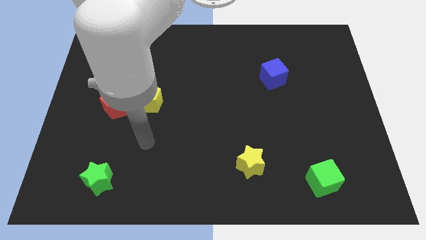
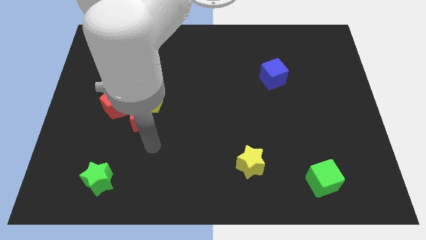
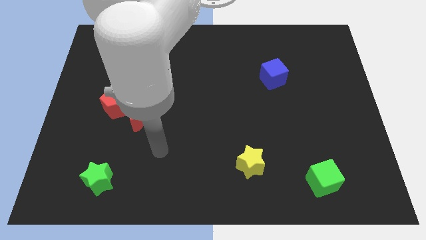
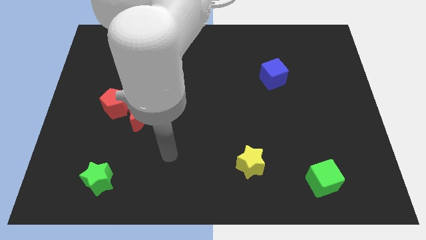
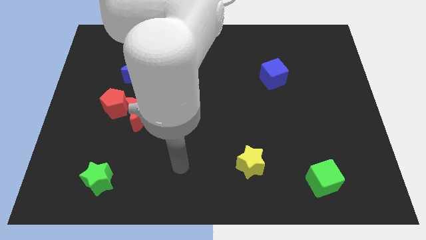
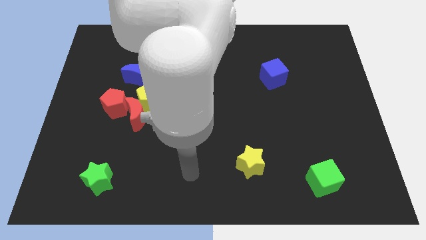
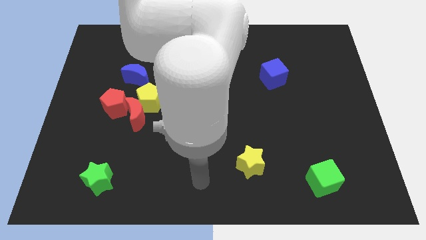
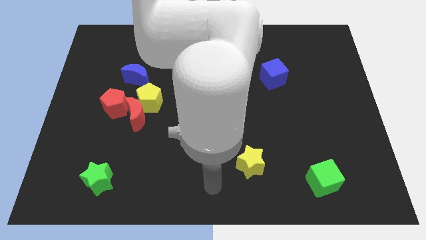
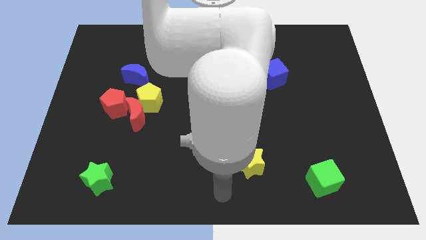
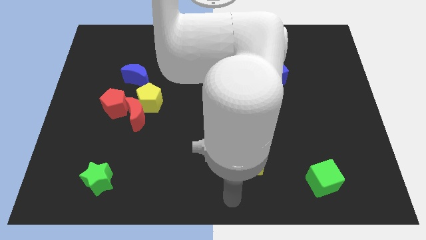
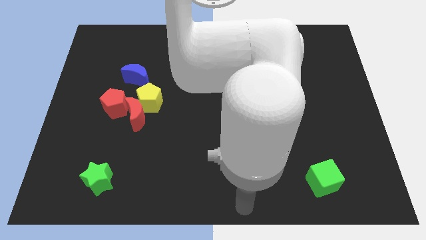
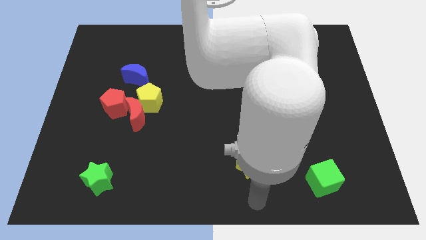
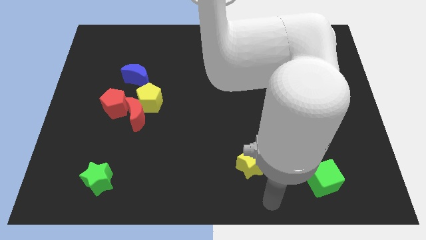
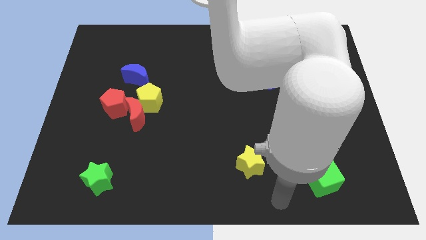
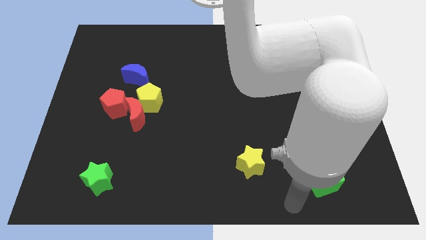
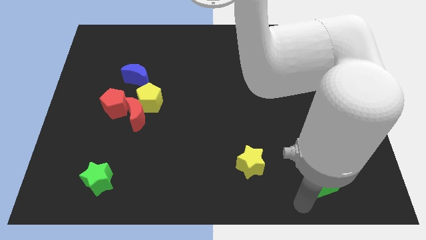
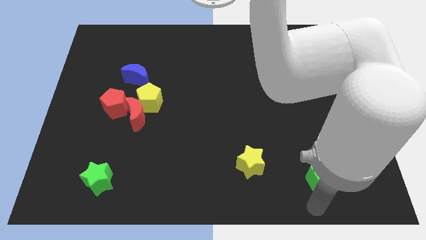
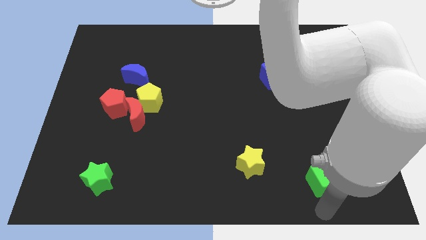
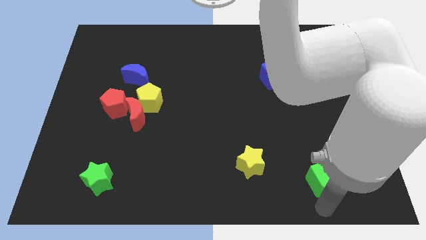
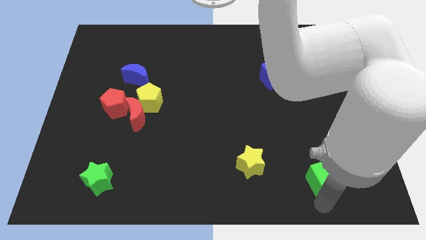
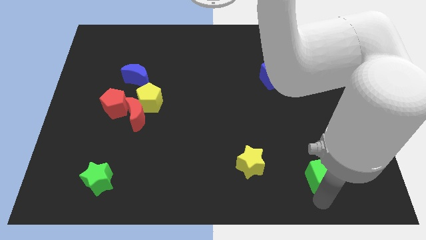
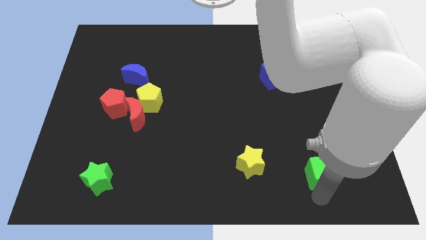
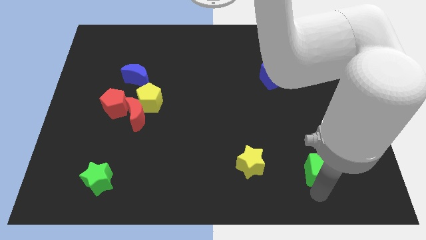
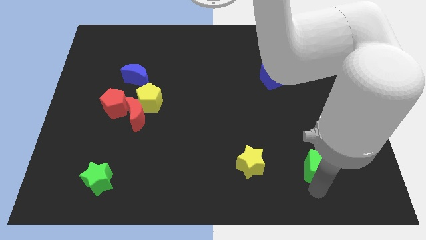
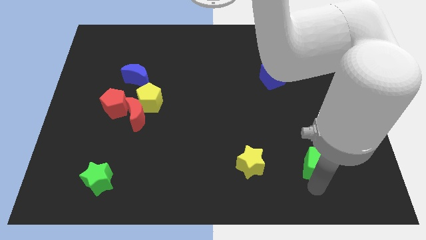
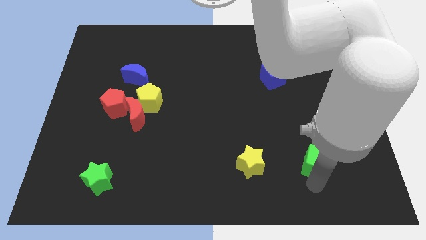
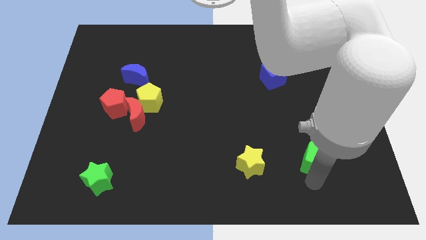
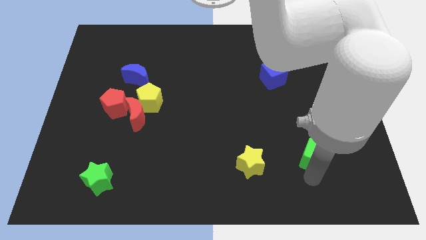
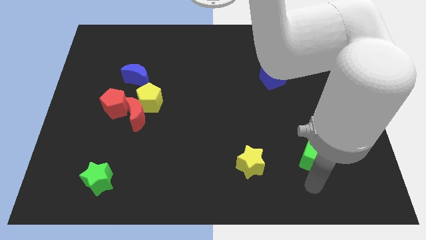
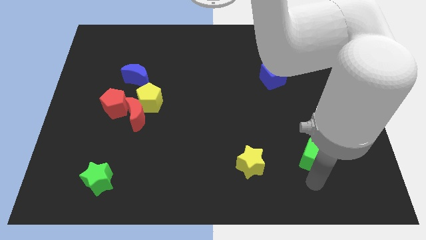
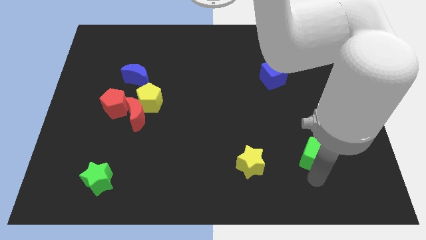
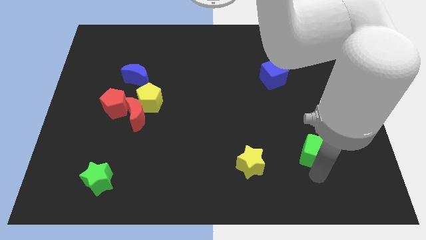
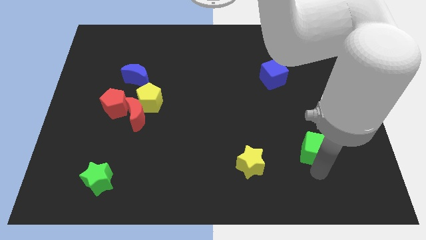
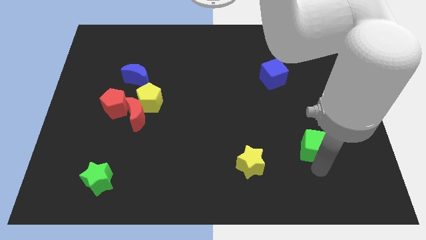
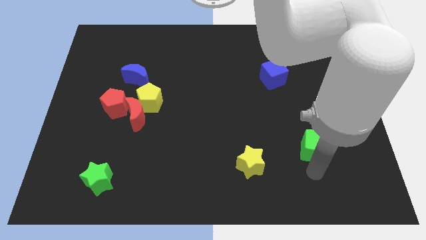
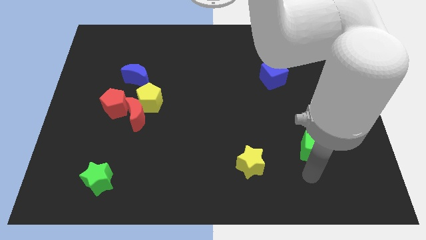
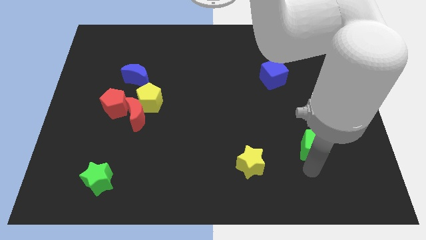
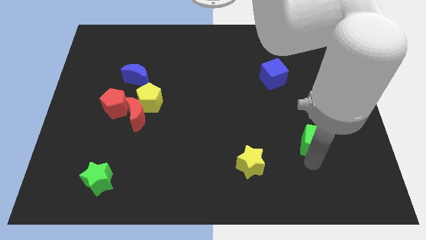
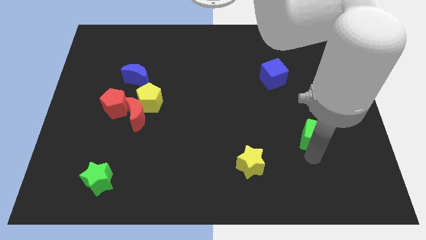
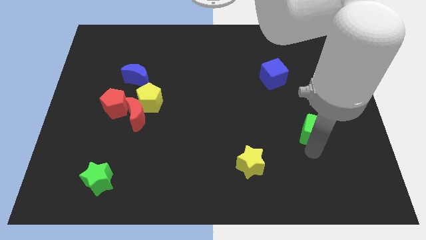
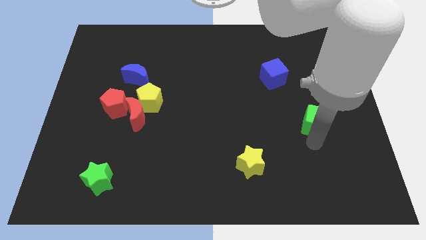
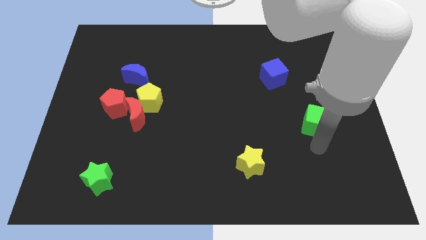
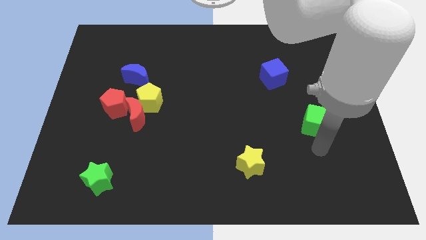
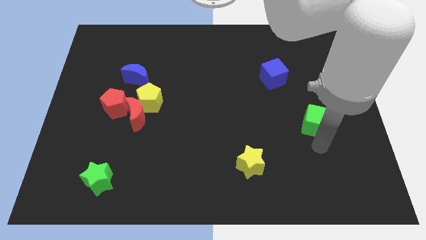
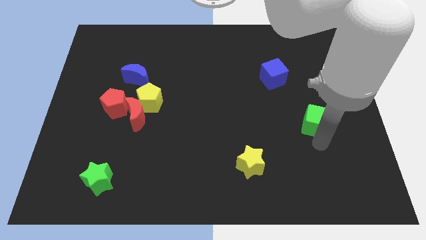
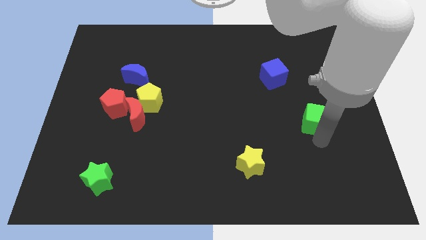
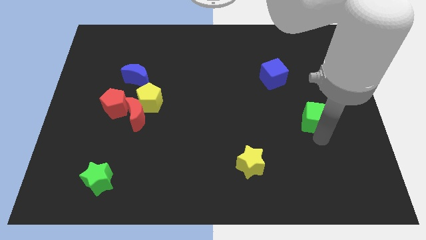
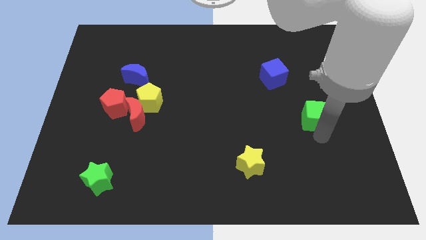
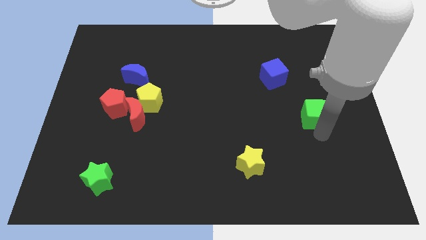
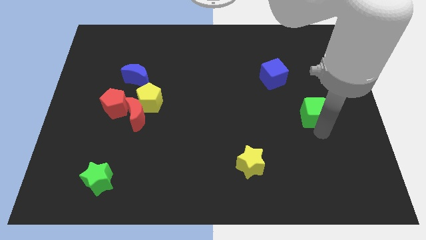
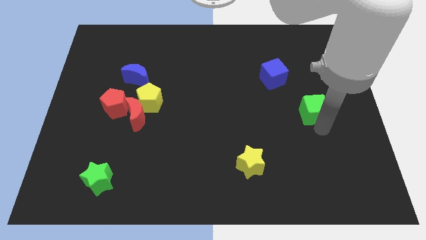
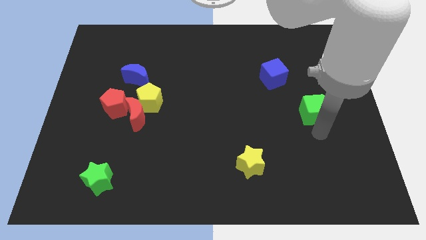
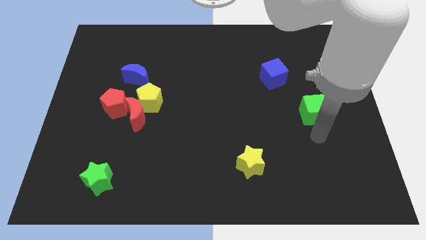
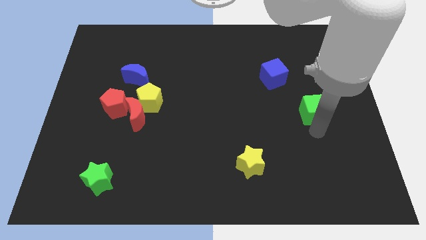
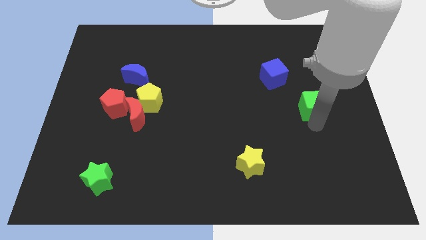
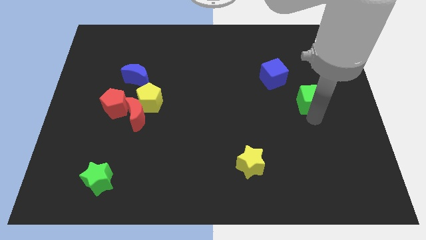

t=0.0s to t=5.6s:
push the green cube upwards

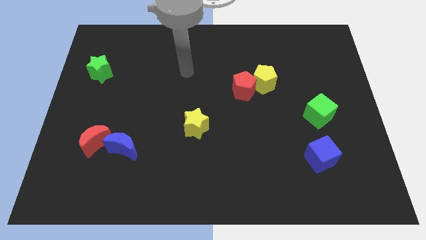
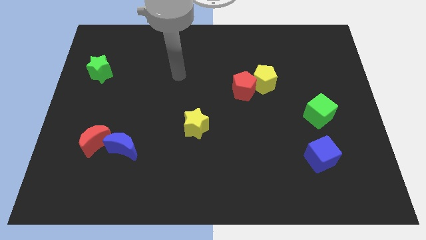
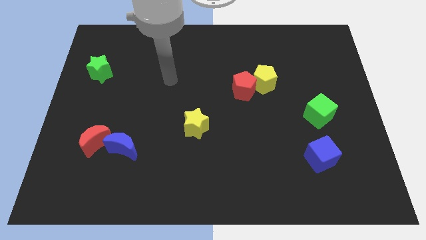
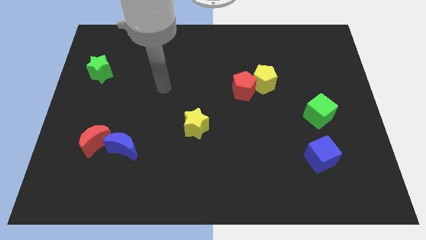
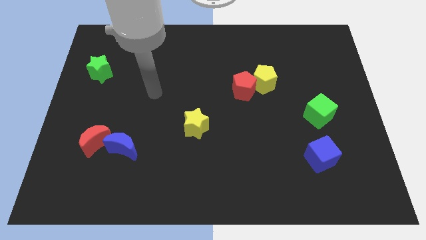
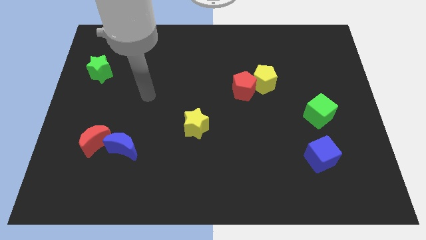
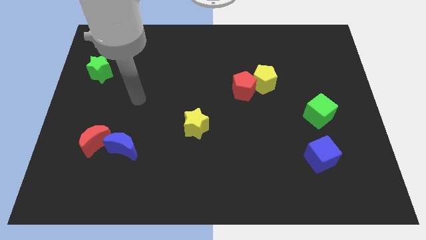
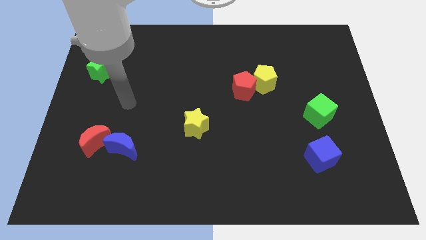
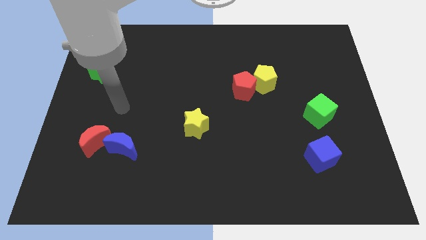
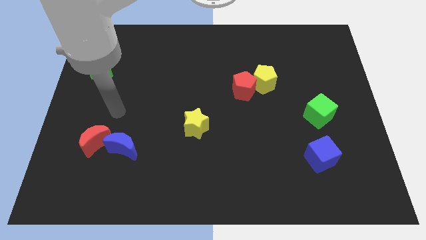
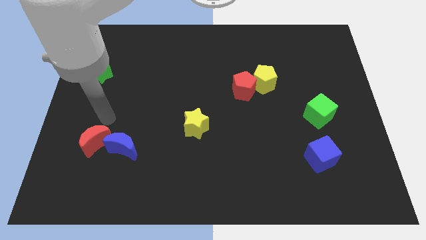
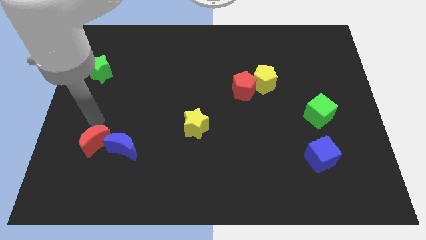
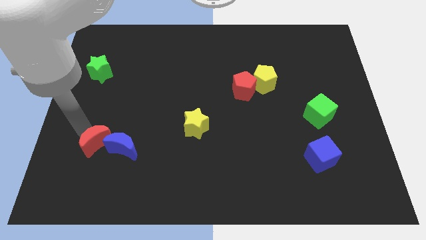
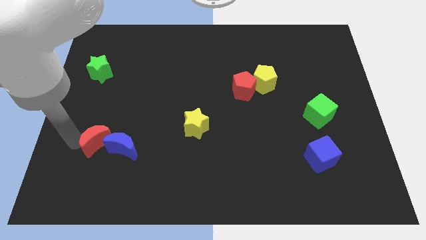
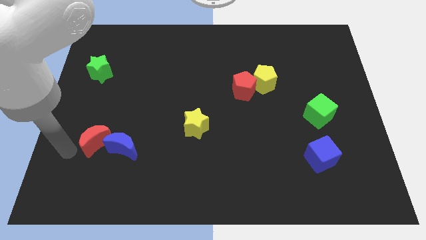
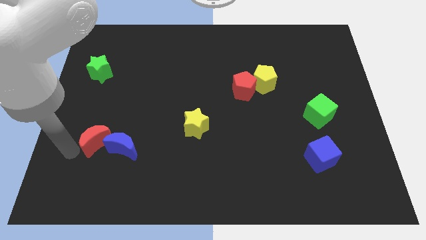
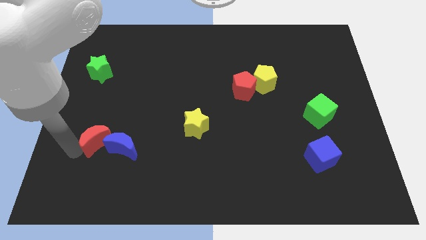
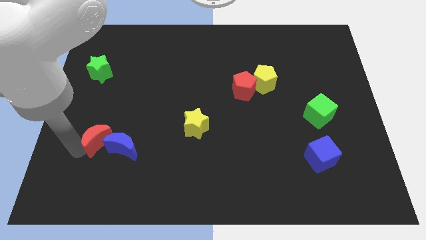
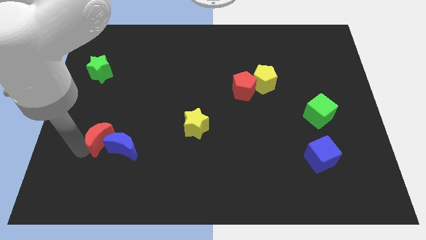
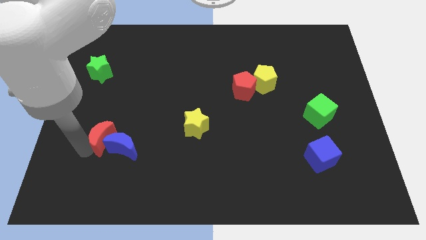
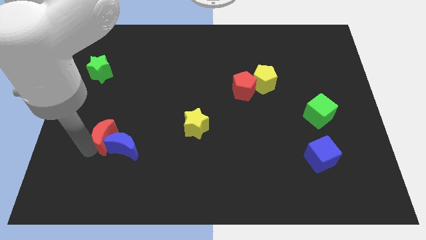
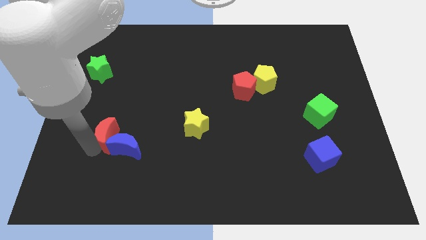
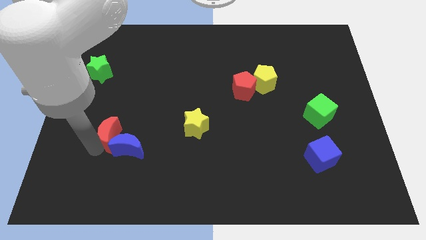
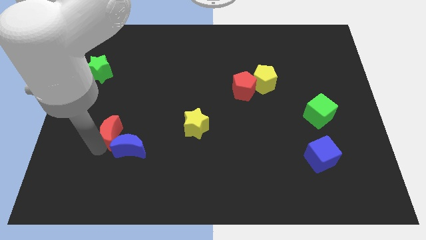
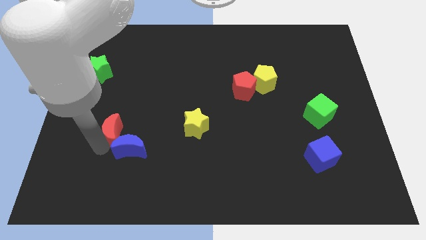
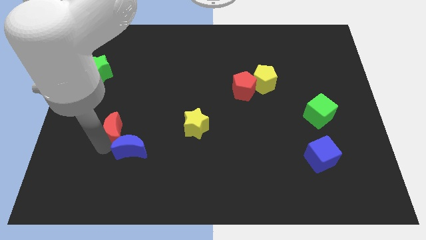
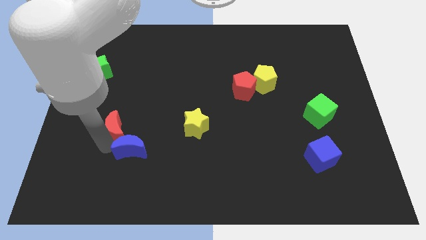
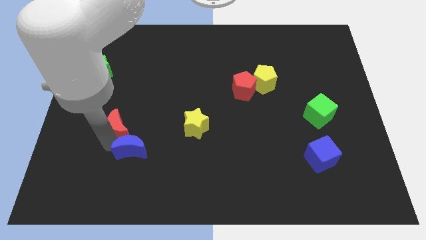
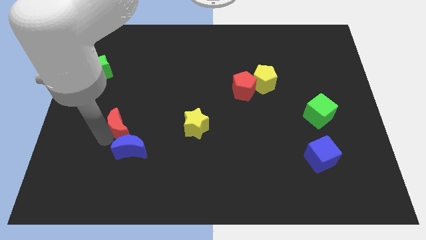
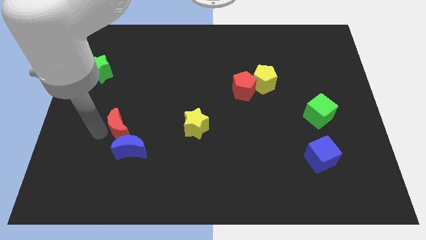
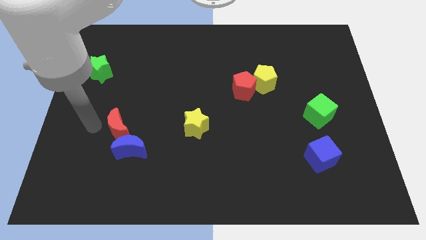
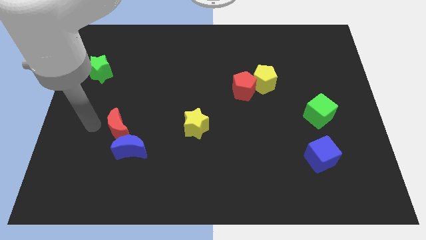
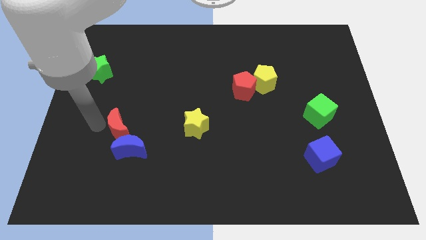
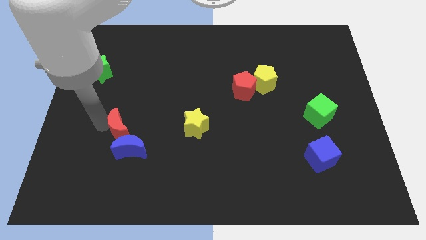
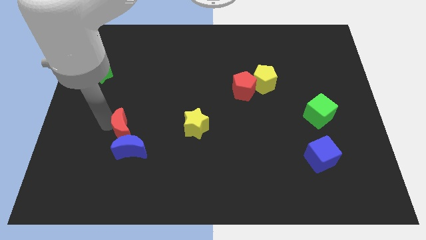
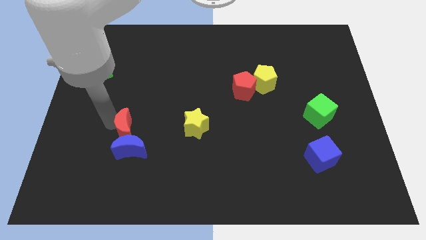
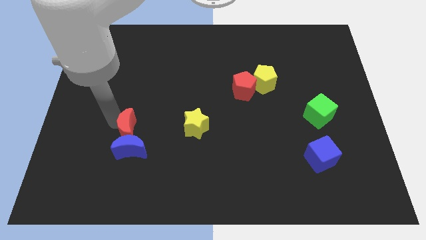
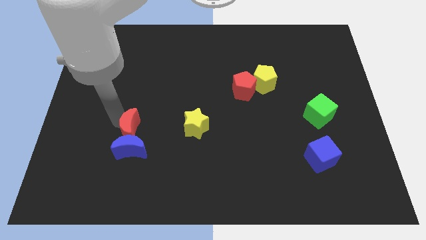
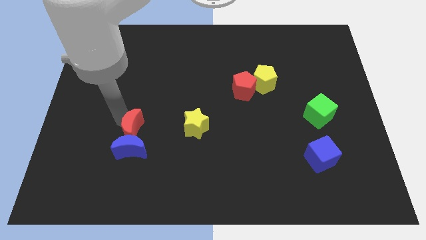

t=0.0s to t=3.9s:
slightly push the red moon to the right
